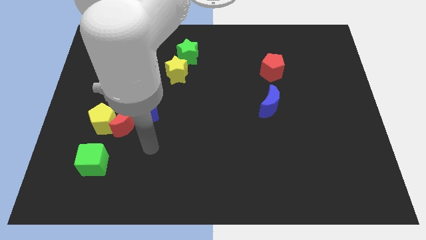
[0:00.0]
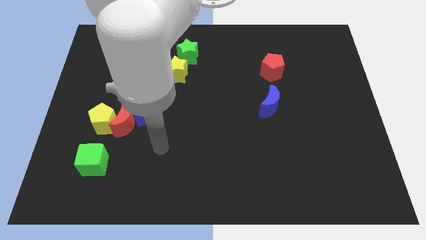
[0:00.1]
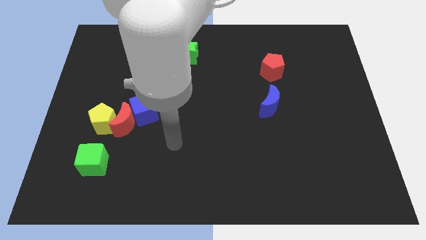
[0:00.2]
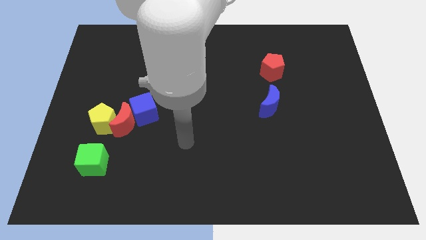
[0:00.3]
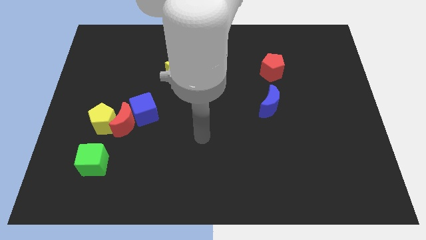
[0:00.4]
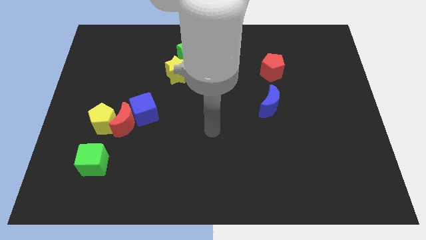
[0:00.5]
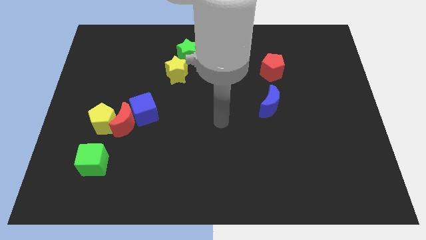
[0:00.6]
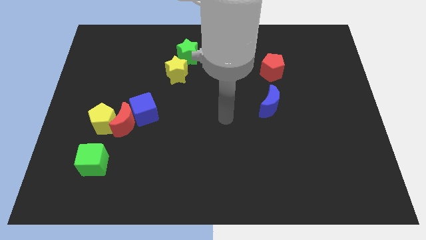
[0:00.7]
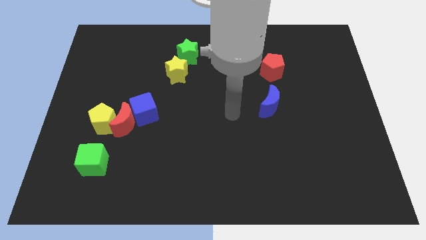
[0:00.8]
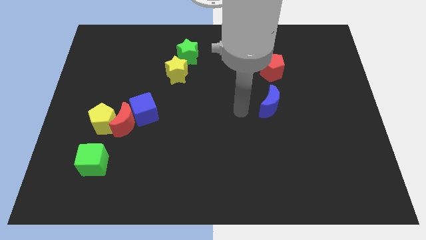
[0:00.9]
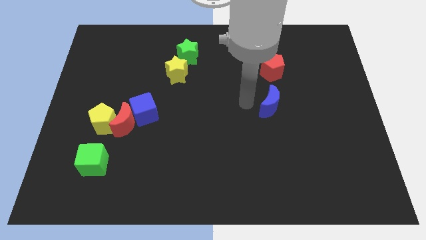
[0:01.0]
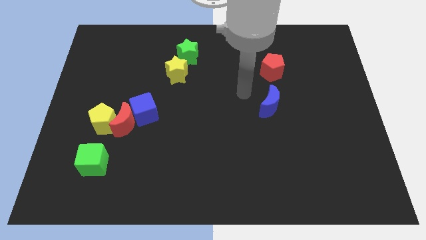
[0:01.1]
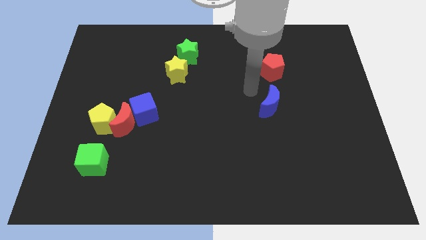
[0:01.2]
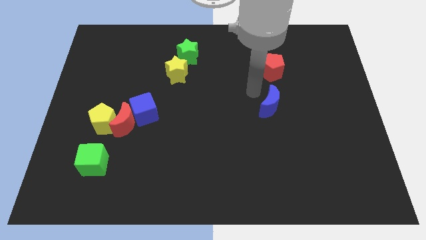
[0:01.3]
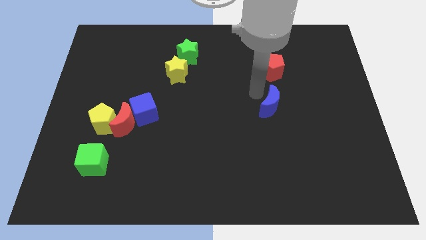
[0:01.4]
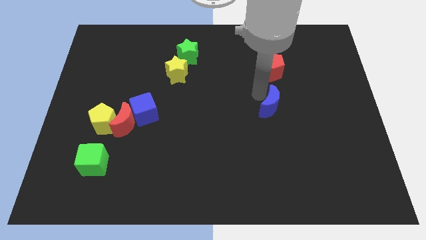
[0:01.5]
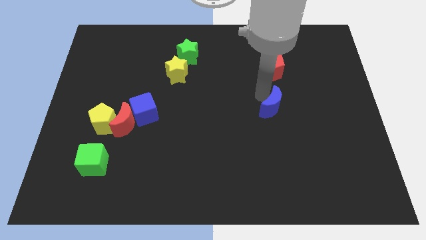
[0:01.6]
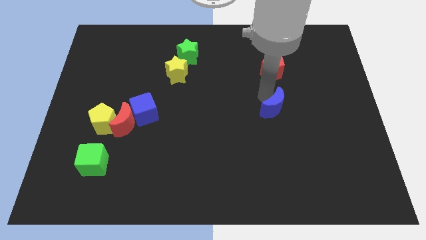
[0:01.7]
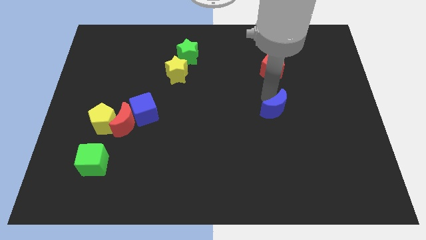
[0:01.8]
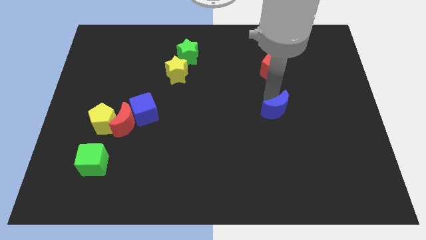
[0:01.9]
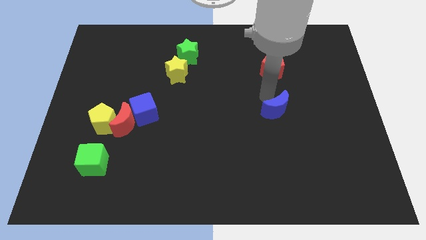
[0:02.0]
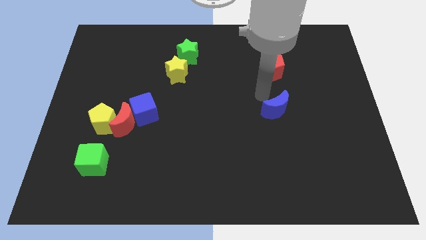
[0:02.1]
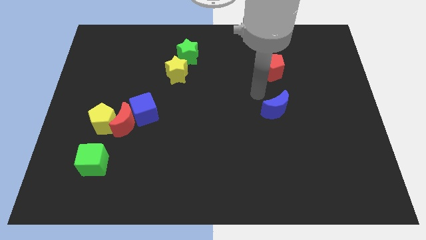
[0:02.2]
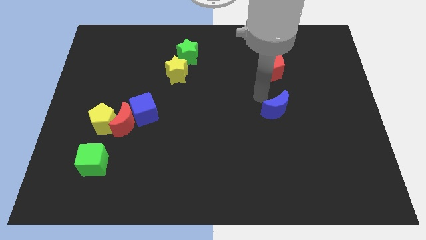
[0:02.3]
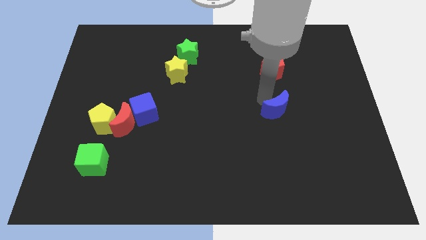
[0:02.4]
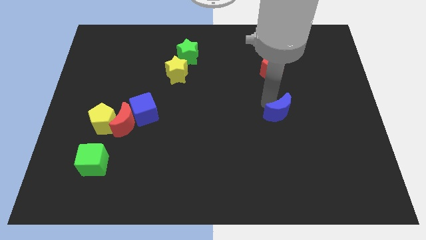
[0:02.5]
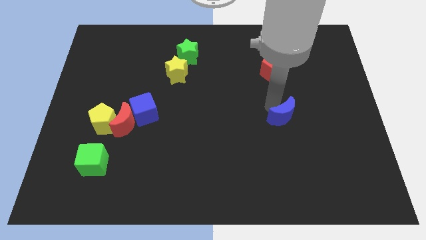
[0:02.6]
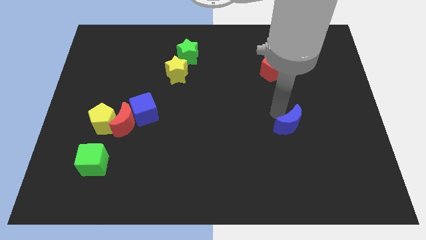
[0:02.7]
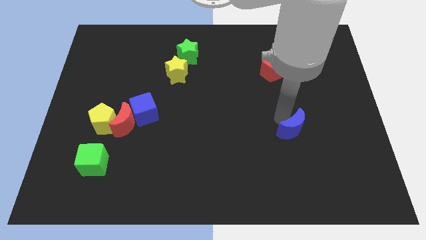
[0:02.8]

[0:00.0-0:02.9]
slightly slide the blue moon down and to the right diagonally

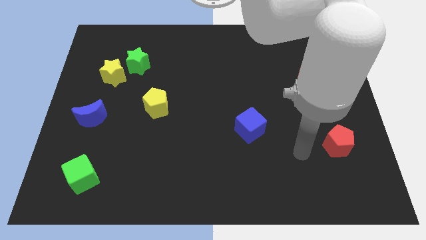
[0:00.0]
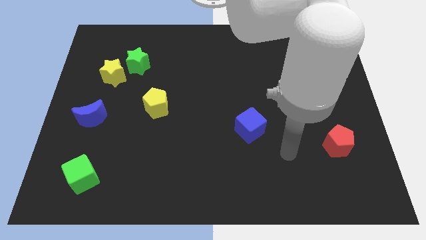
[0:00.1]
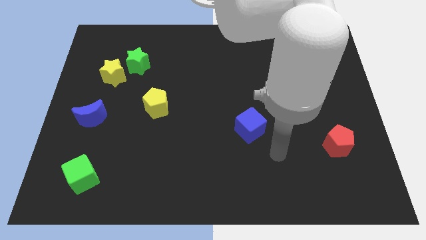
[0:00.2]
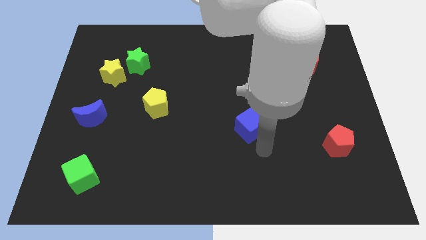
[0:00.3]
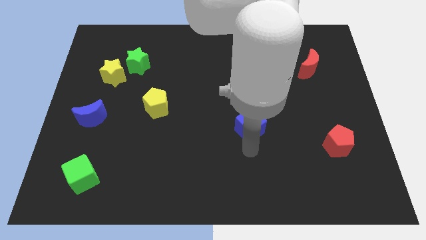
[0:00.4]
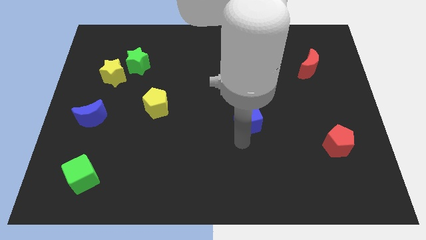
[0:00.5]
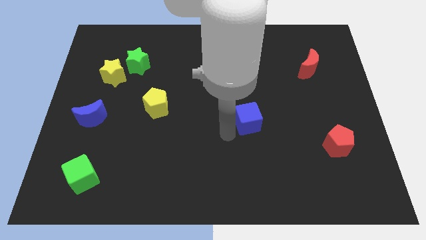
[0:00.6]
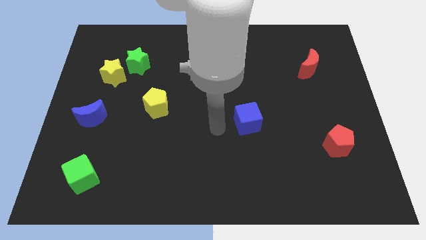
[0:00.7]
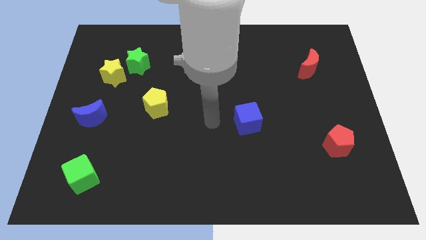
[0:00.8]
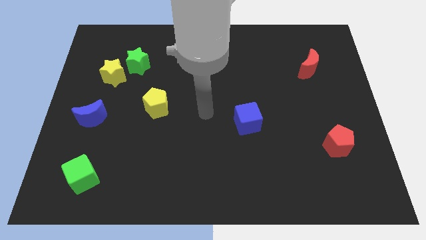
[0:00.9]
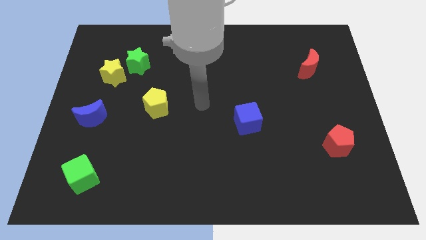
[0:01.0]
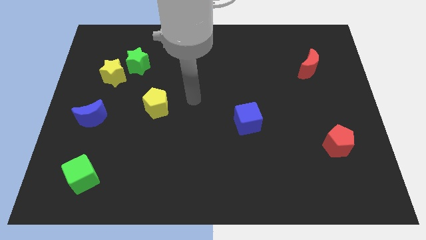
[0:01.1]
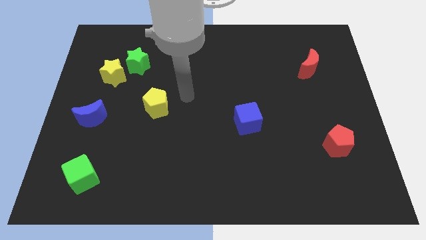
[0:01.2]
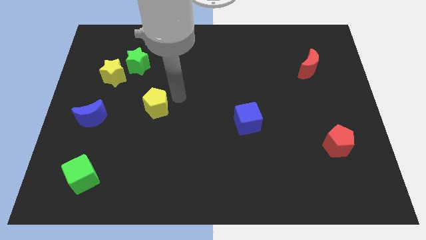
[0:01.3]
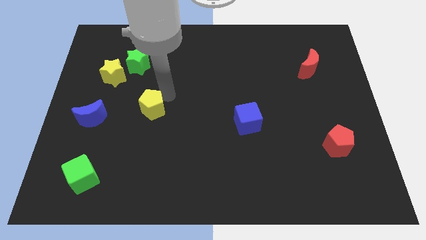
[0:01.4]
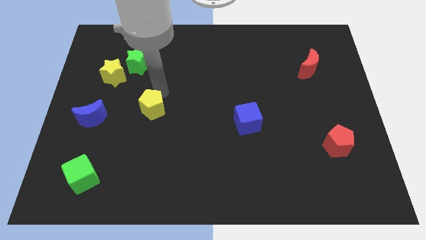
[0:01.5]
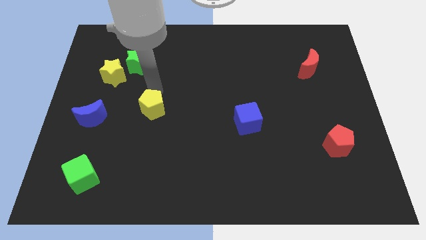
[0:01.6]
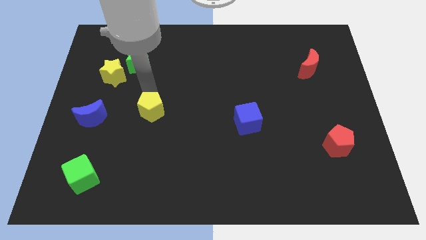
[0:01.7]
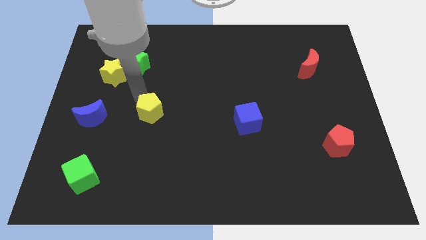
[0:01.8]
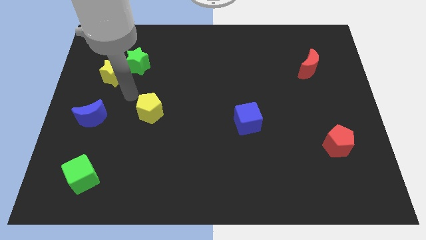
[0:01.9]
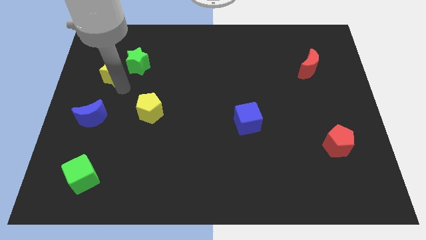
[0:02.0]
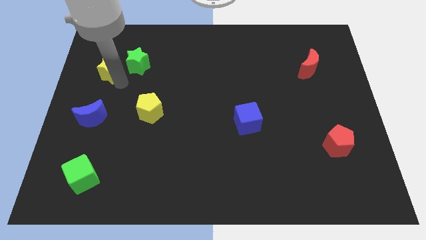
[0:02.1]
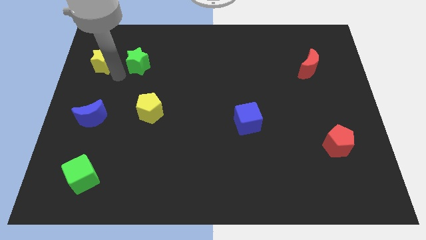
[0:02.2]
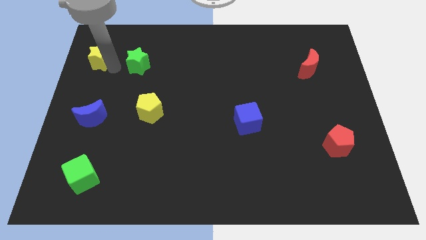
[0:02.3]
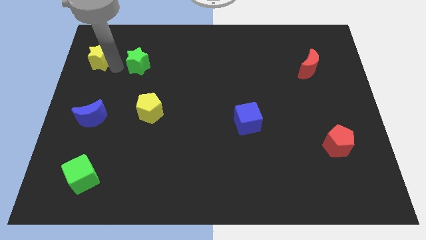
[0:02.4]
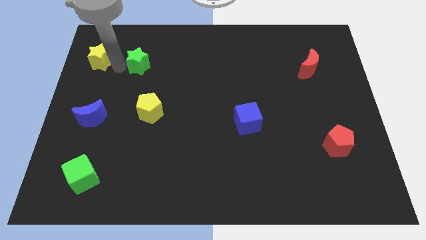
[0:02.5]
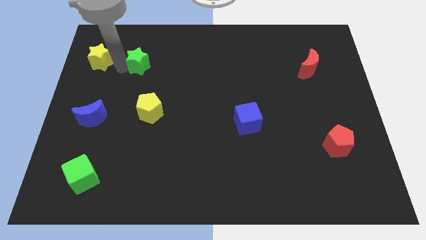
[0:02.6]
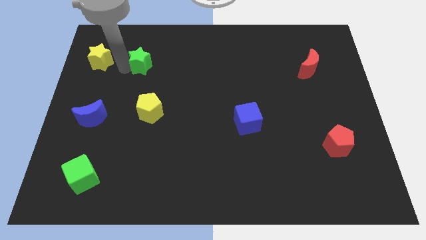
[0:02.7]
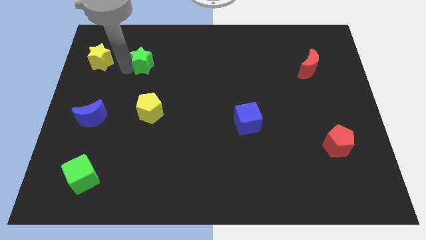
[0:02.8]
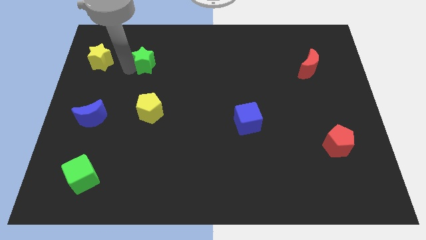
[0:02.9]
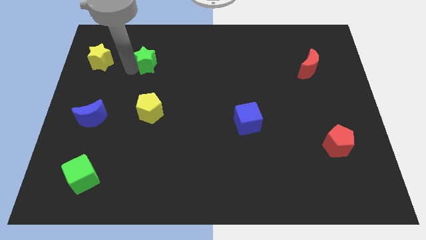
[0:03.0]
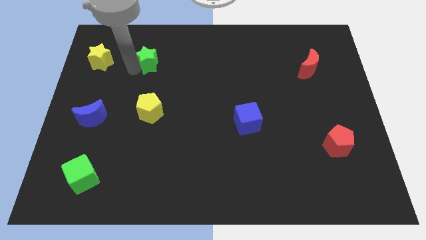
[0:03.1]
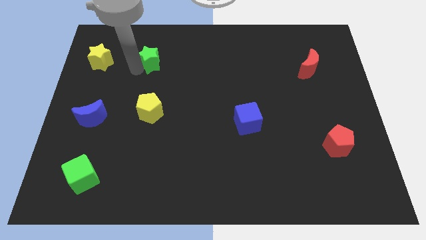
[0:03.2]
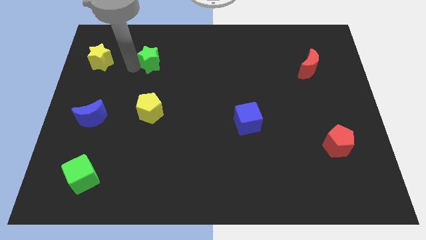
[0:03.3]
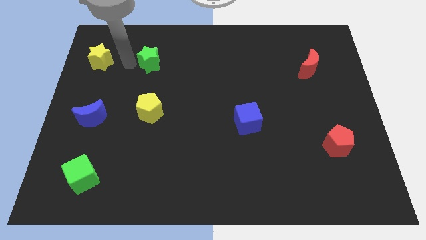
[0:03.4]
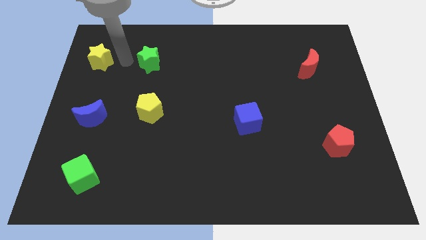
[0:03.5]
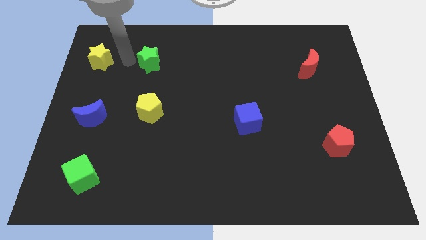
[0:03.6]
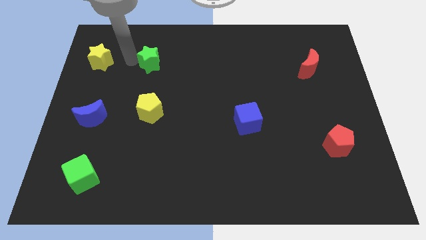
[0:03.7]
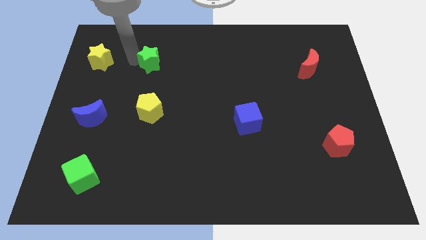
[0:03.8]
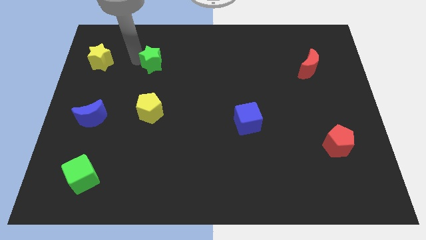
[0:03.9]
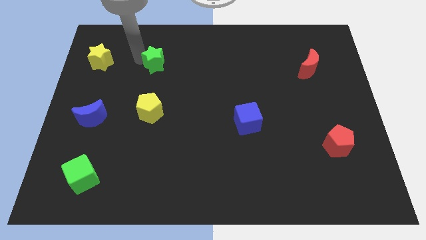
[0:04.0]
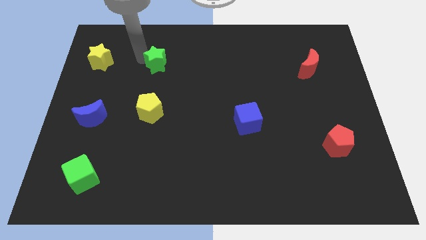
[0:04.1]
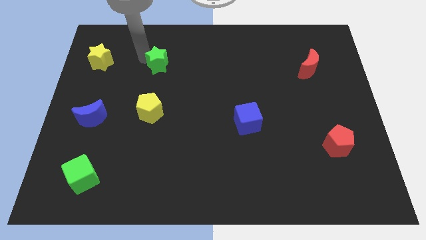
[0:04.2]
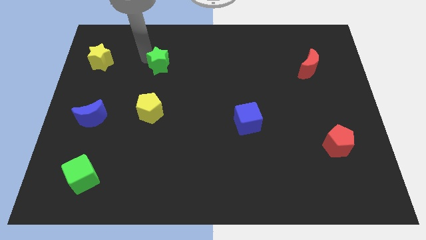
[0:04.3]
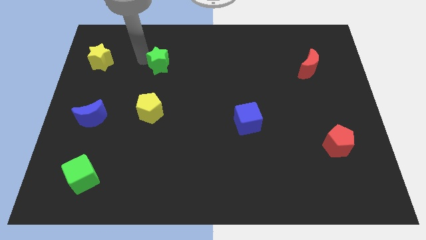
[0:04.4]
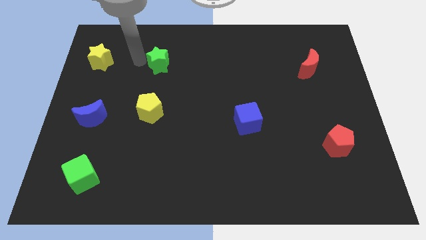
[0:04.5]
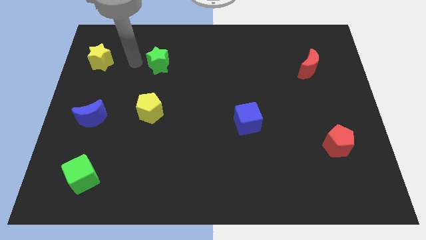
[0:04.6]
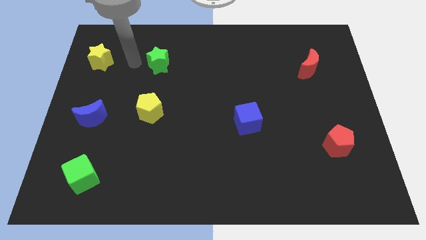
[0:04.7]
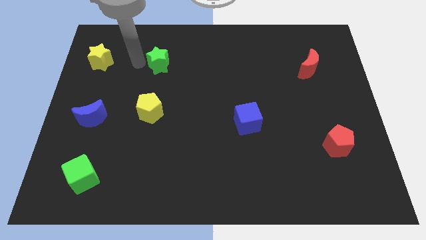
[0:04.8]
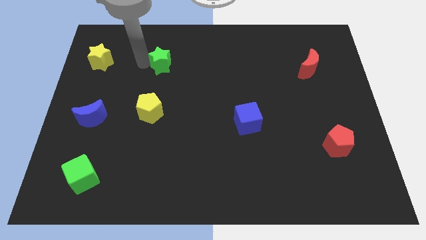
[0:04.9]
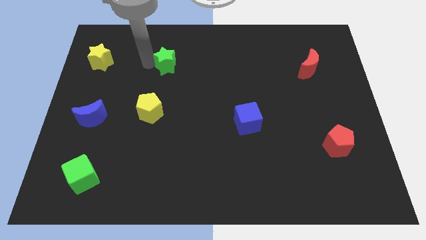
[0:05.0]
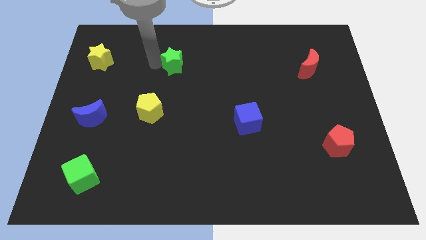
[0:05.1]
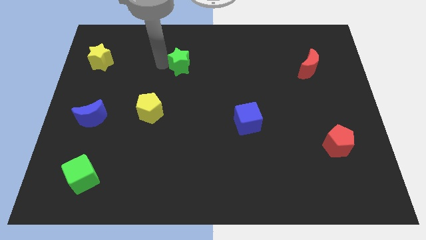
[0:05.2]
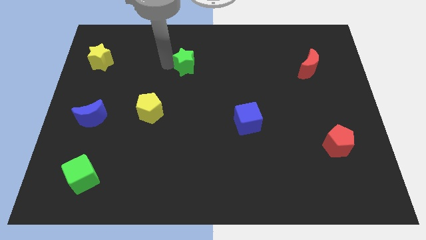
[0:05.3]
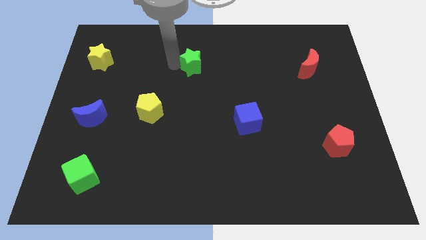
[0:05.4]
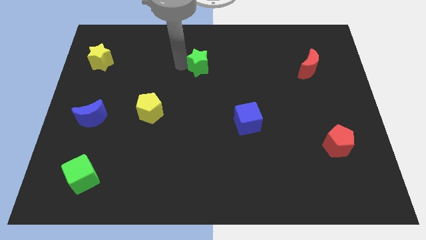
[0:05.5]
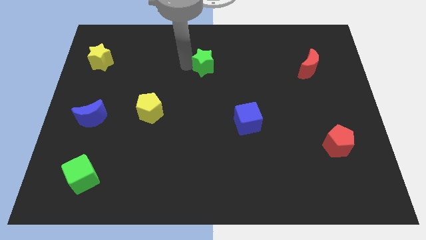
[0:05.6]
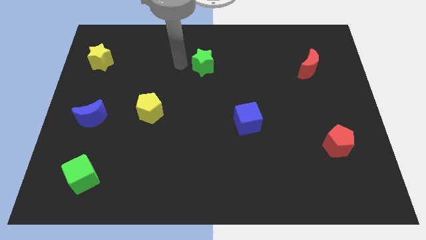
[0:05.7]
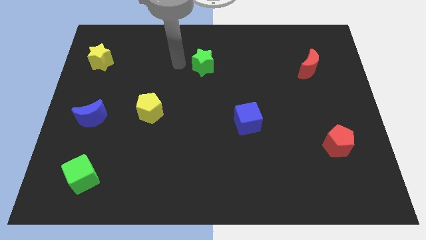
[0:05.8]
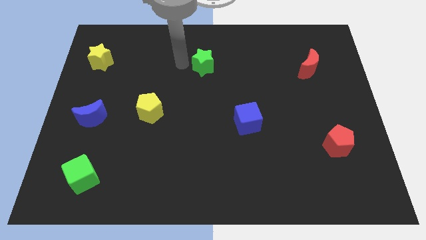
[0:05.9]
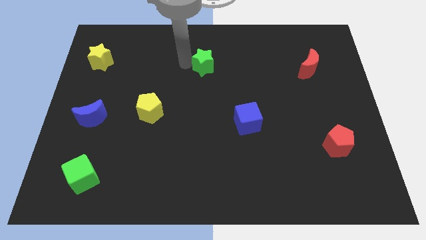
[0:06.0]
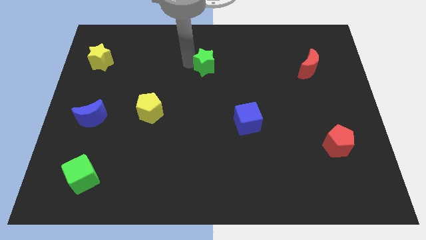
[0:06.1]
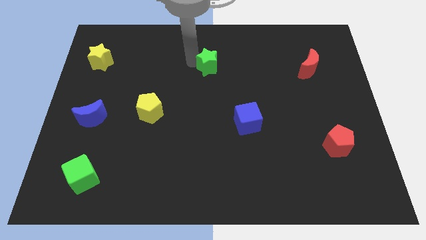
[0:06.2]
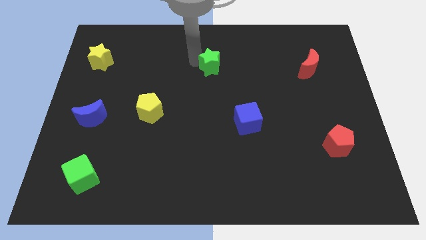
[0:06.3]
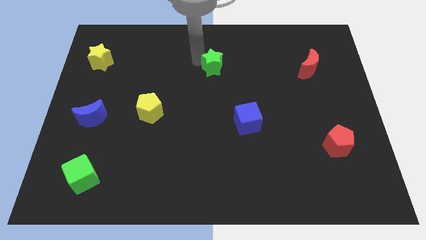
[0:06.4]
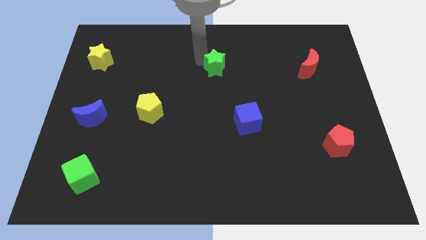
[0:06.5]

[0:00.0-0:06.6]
push the green star right
